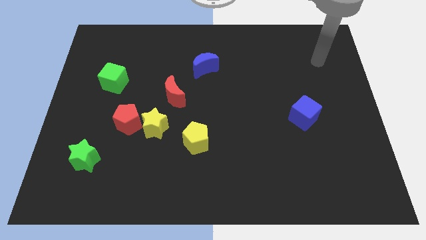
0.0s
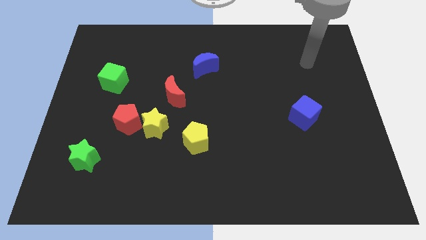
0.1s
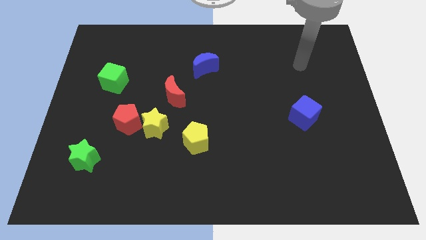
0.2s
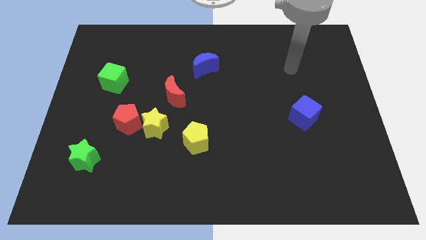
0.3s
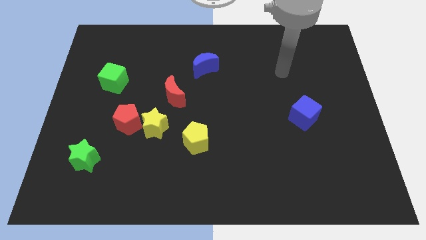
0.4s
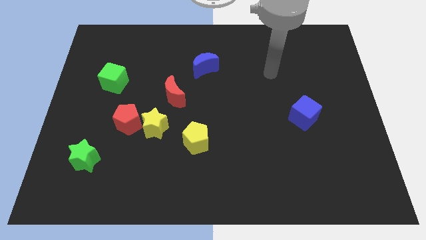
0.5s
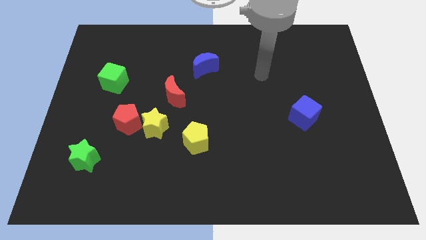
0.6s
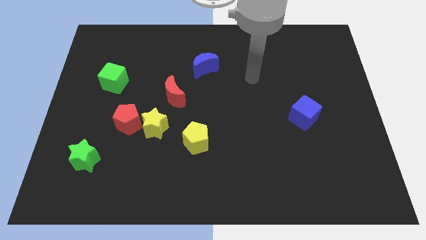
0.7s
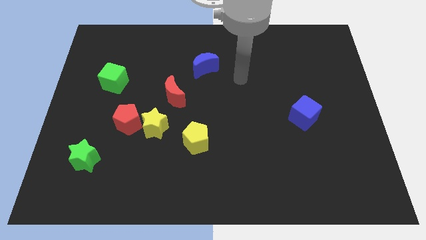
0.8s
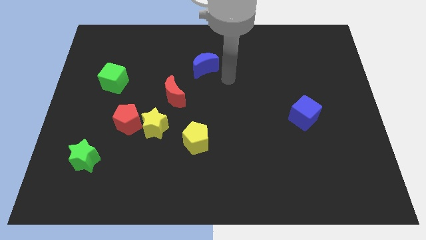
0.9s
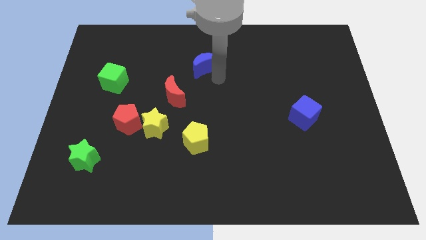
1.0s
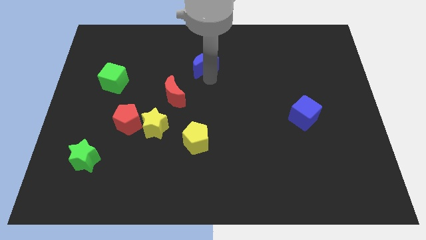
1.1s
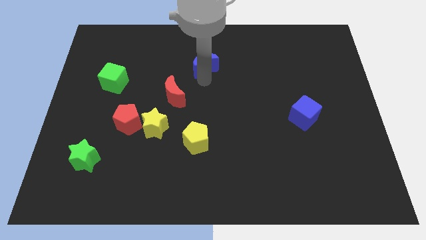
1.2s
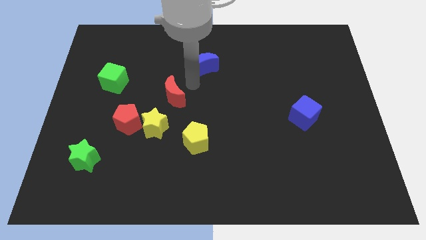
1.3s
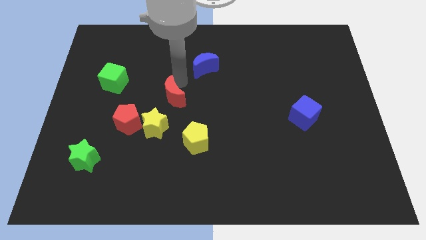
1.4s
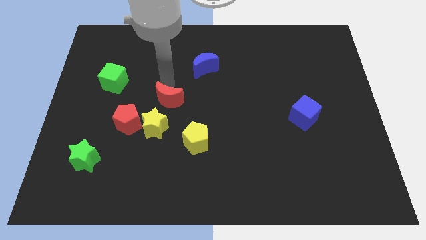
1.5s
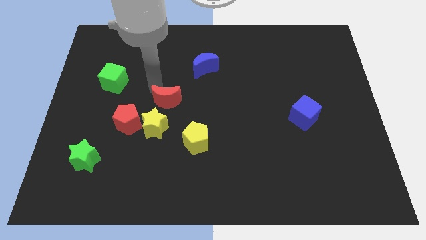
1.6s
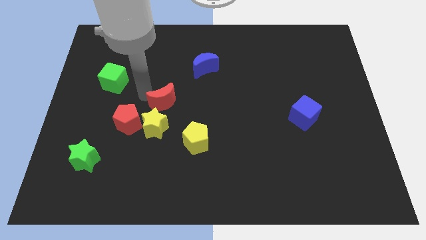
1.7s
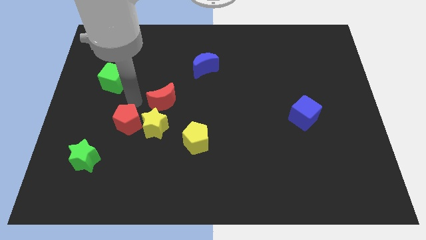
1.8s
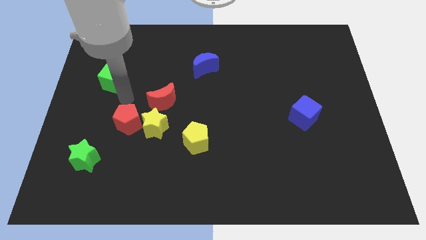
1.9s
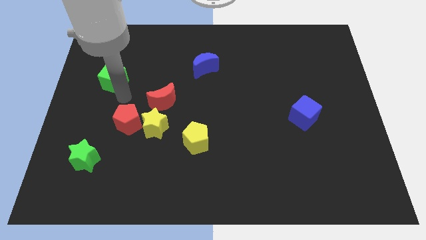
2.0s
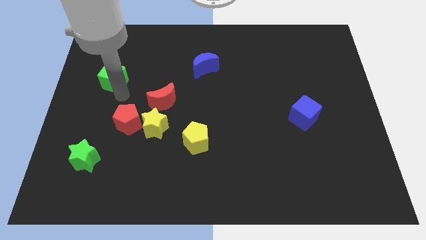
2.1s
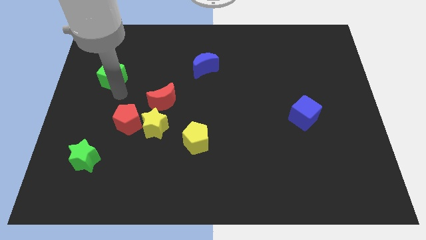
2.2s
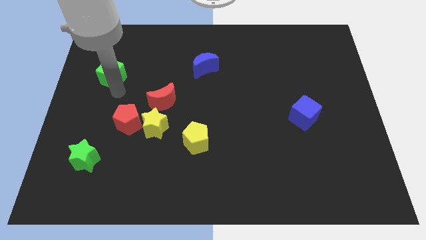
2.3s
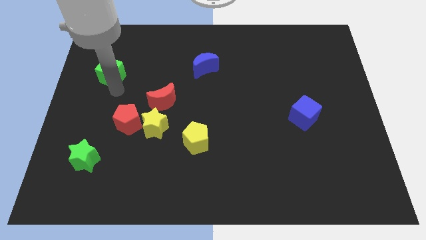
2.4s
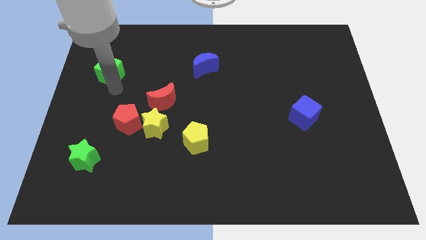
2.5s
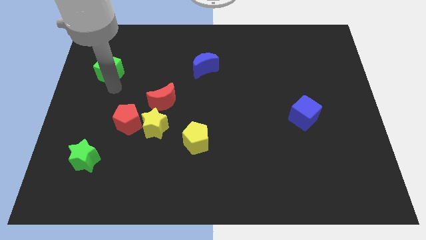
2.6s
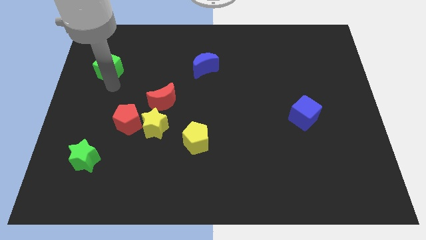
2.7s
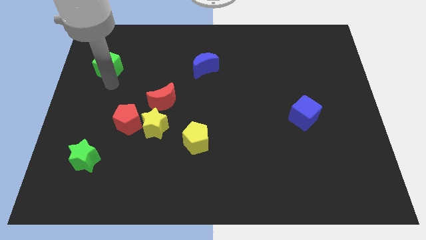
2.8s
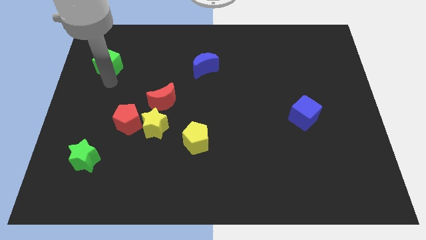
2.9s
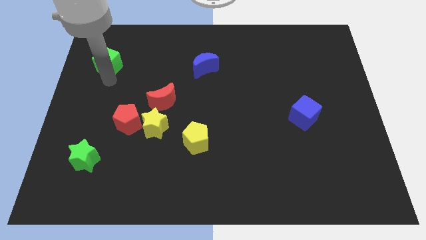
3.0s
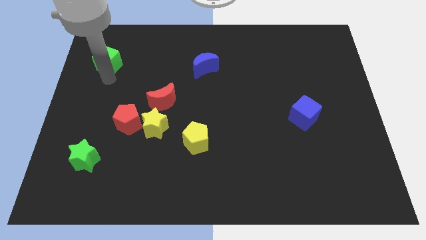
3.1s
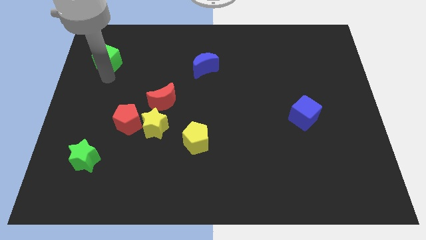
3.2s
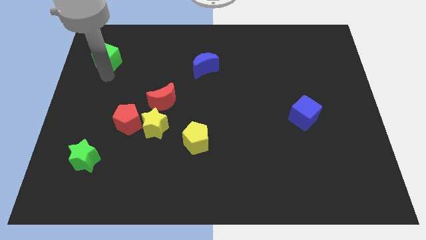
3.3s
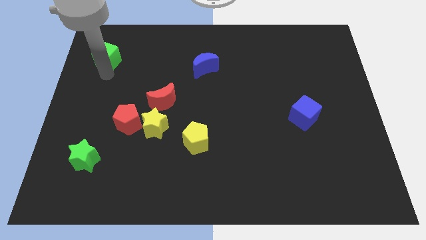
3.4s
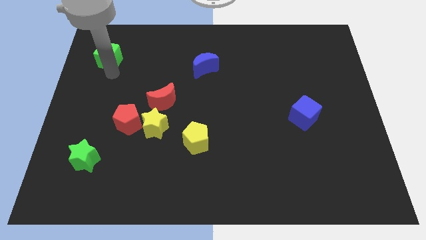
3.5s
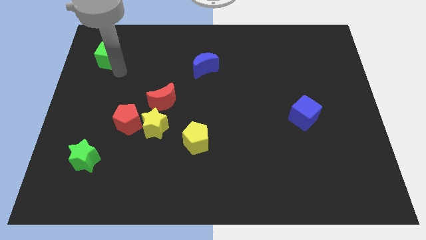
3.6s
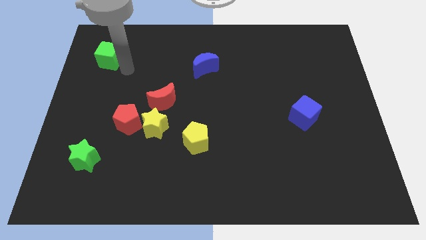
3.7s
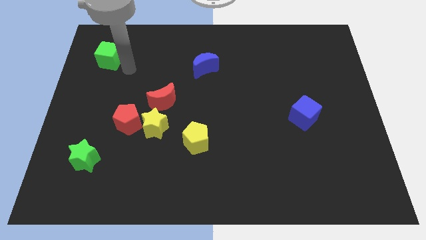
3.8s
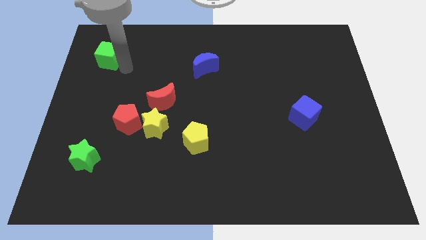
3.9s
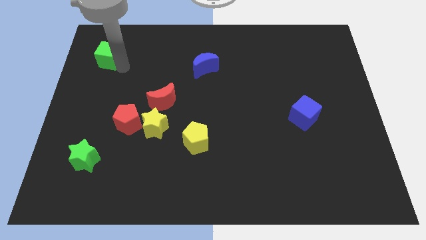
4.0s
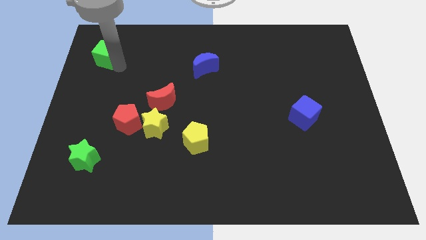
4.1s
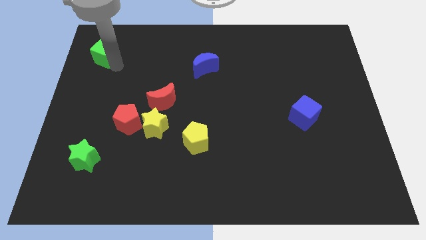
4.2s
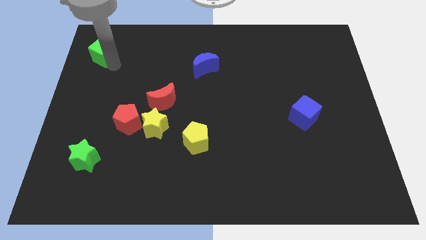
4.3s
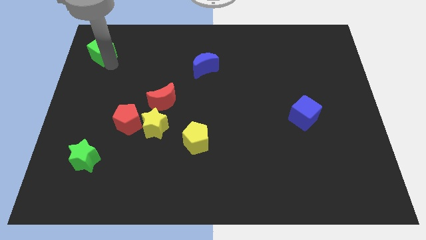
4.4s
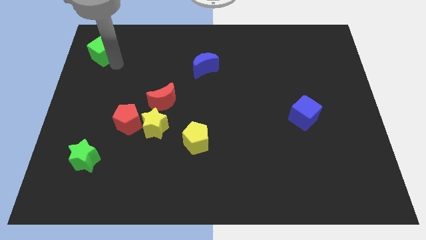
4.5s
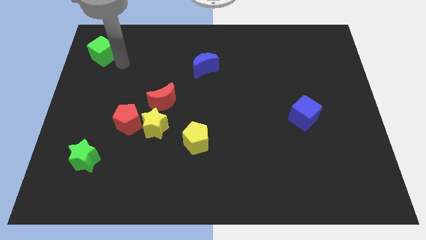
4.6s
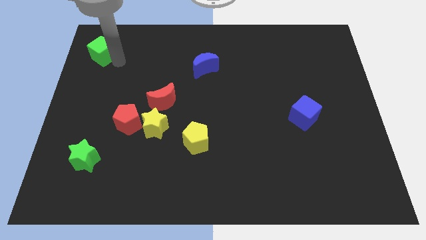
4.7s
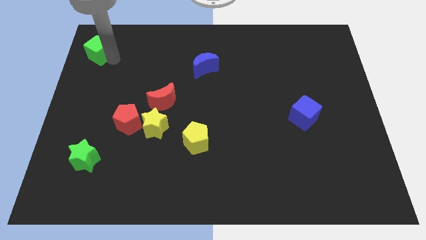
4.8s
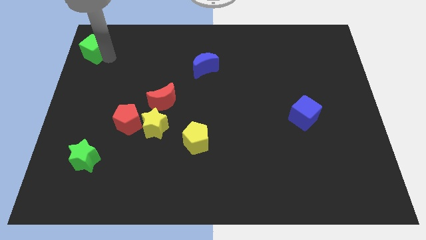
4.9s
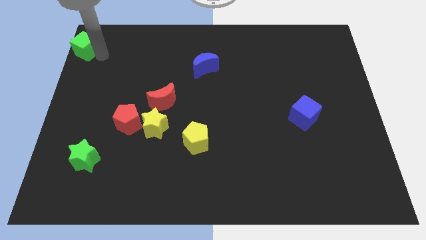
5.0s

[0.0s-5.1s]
slide the green cube to the top left

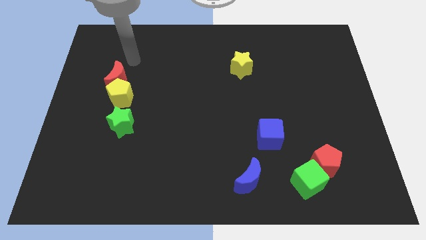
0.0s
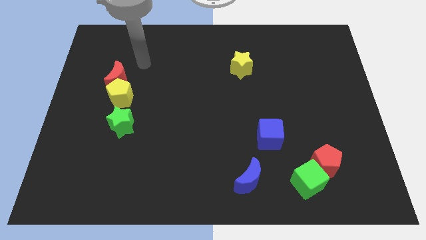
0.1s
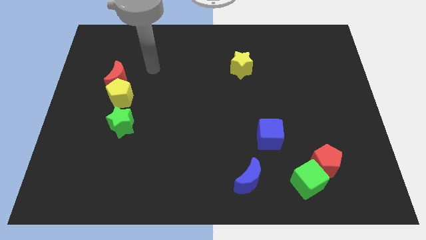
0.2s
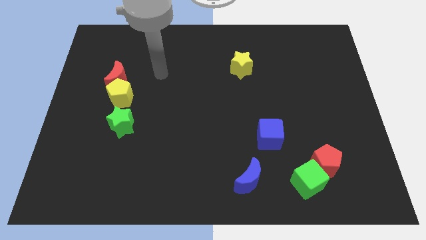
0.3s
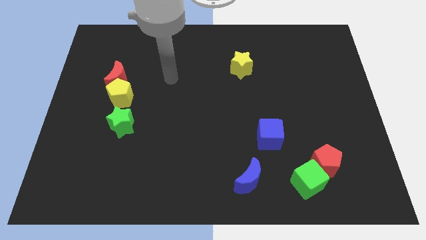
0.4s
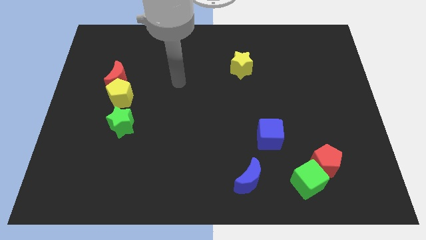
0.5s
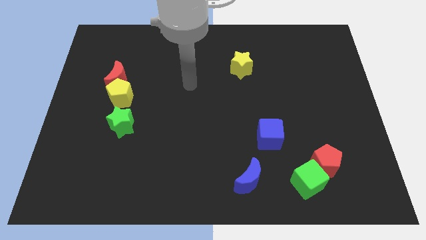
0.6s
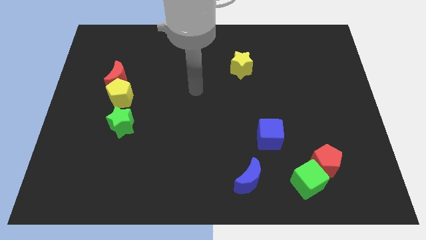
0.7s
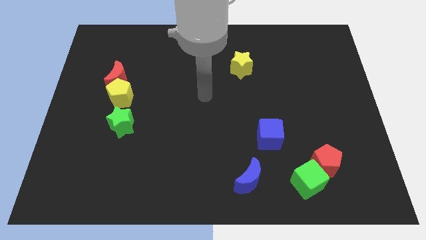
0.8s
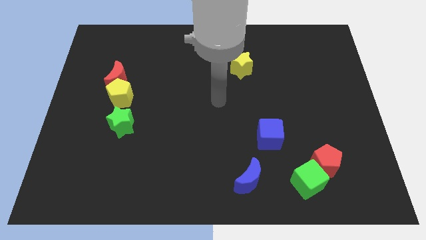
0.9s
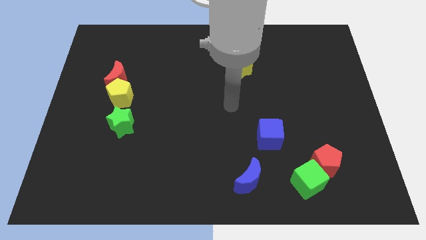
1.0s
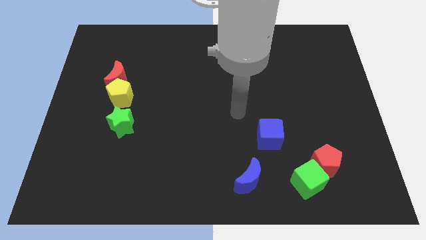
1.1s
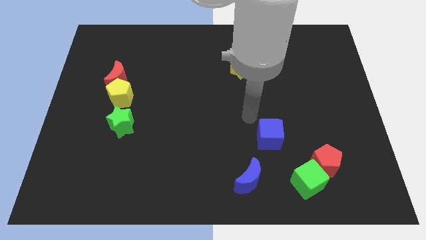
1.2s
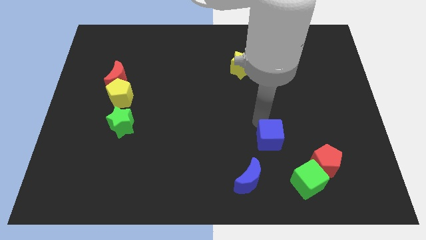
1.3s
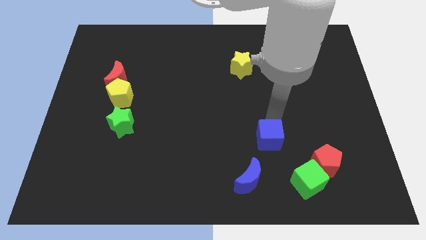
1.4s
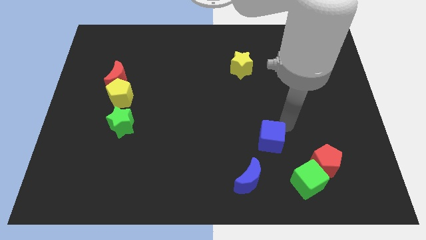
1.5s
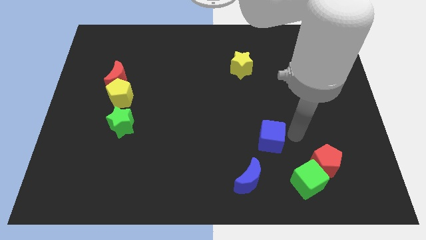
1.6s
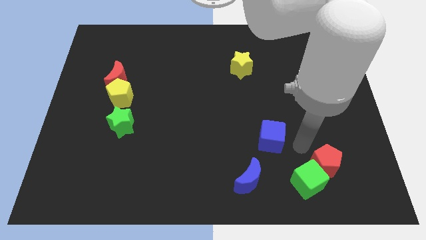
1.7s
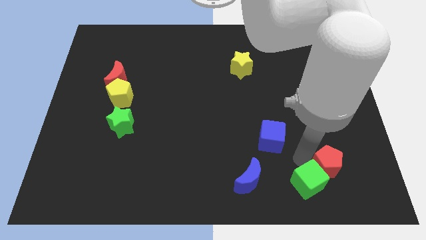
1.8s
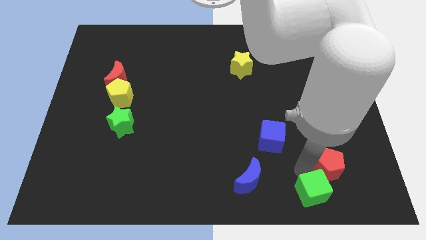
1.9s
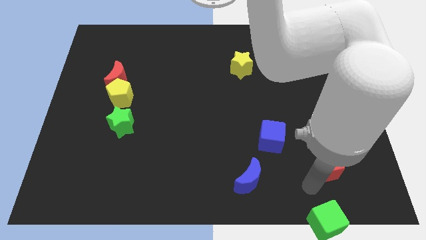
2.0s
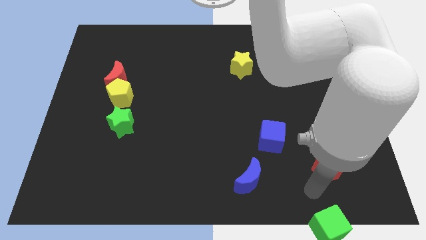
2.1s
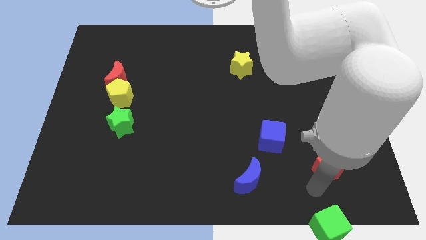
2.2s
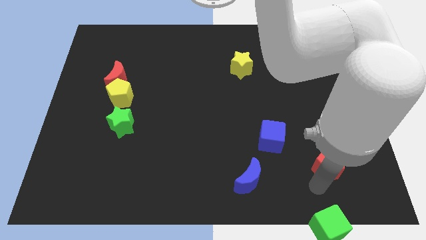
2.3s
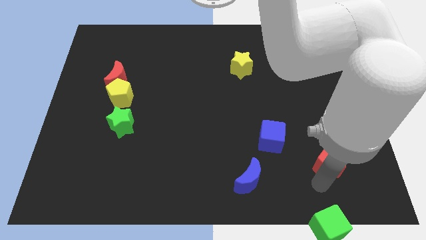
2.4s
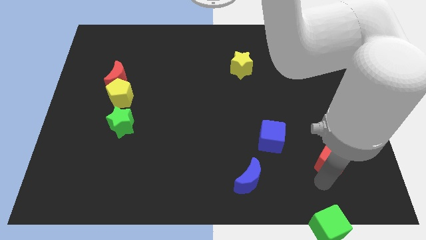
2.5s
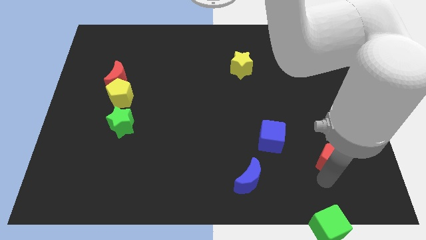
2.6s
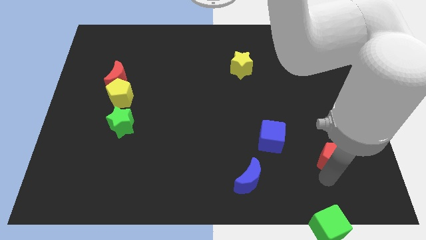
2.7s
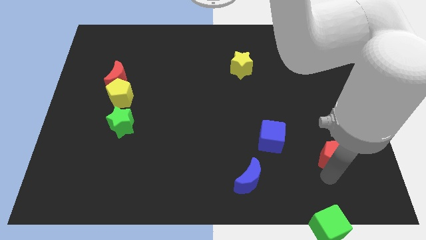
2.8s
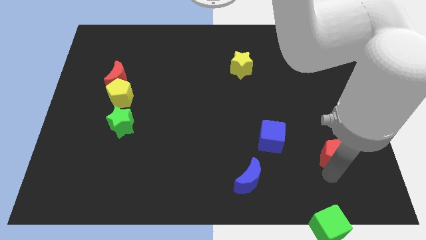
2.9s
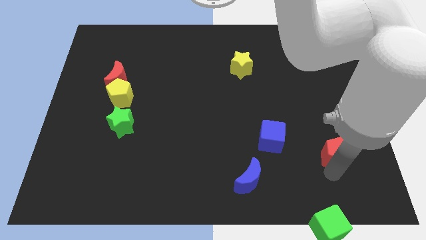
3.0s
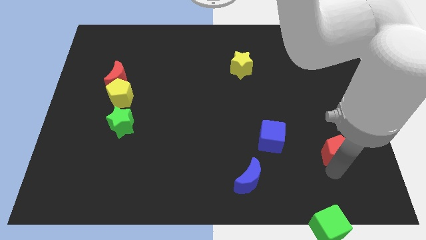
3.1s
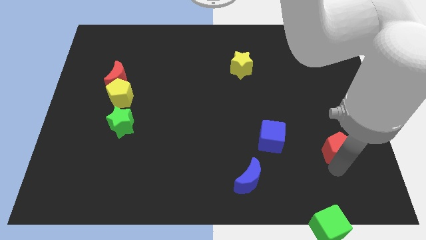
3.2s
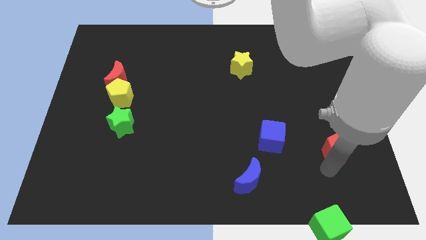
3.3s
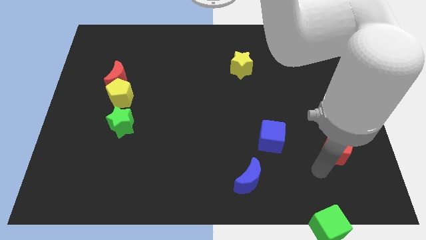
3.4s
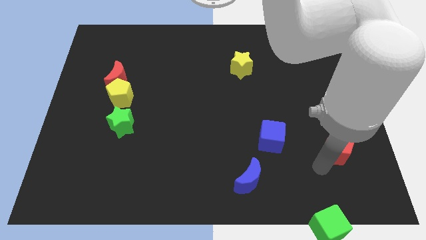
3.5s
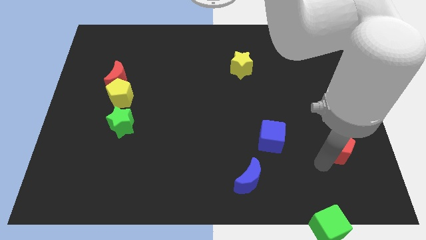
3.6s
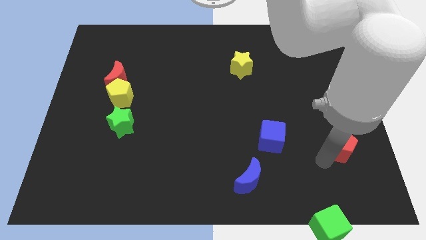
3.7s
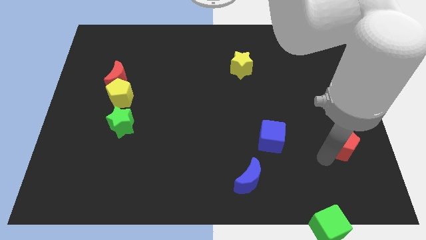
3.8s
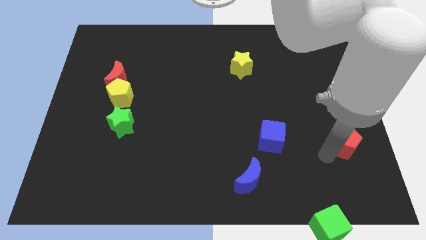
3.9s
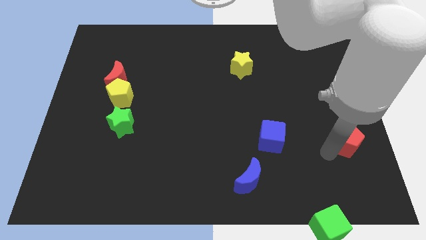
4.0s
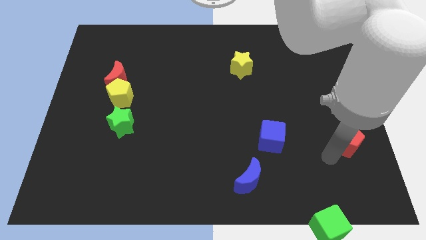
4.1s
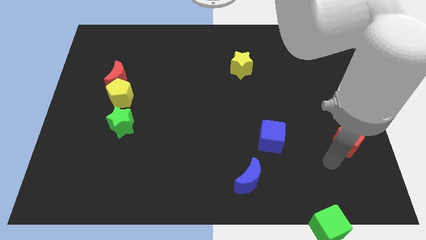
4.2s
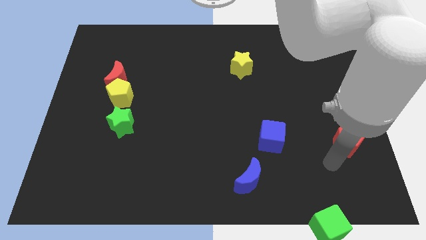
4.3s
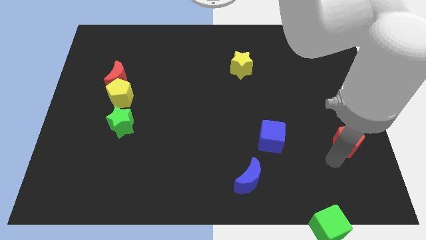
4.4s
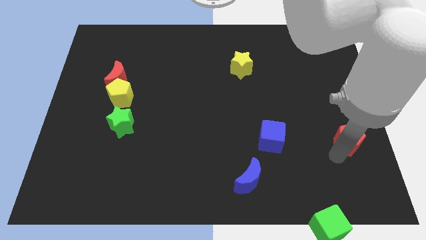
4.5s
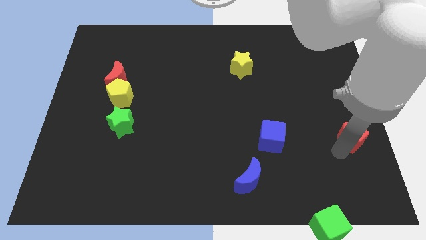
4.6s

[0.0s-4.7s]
push the red pentagon to the right side of the board
